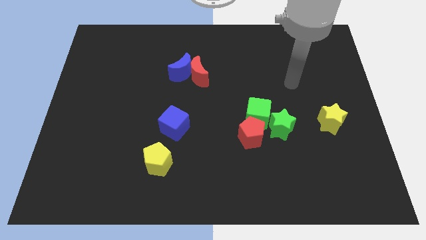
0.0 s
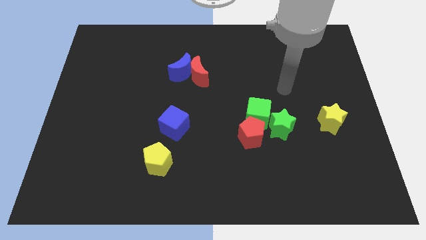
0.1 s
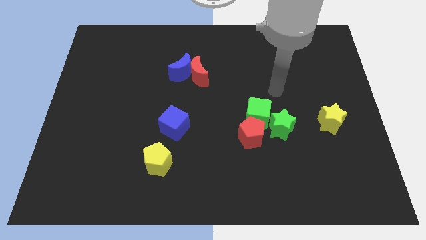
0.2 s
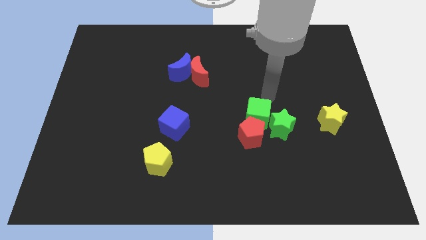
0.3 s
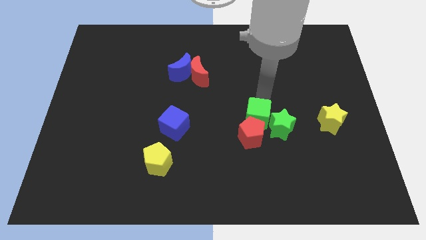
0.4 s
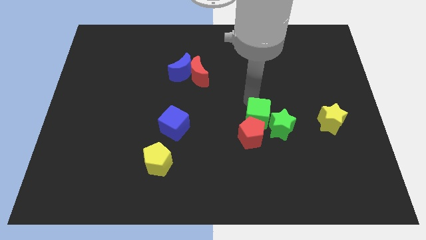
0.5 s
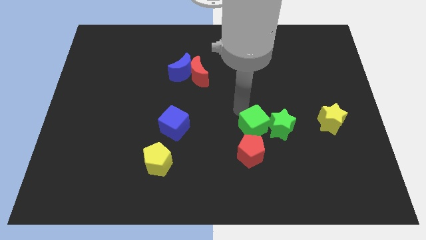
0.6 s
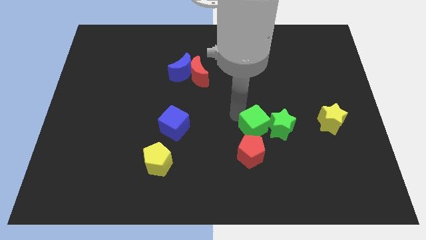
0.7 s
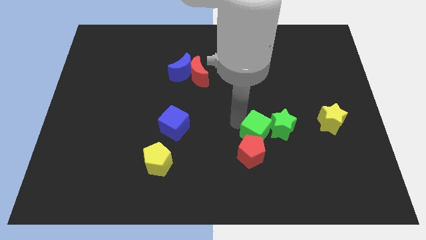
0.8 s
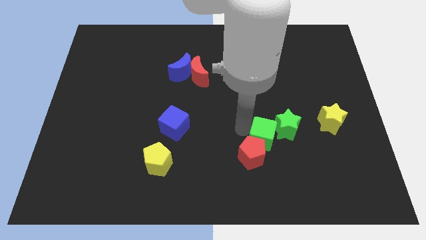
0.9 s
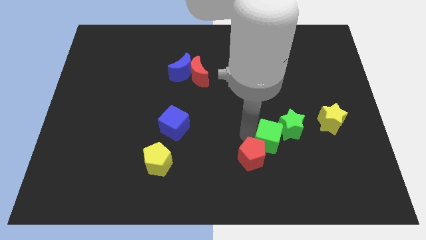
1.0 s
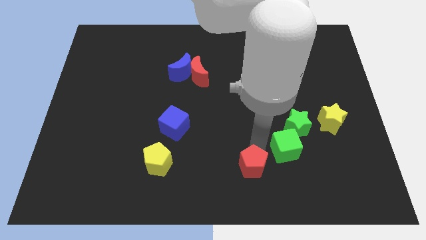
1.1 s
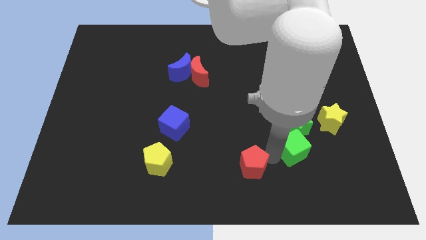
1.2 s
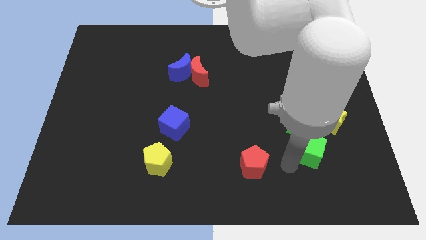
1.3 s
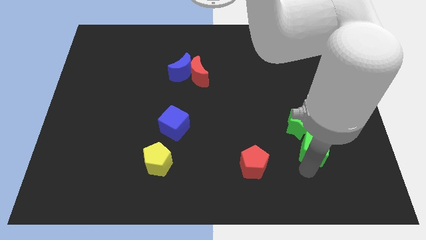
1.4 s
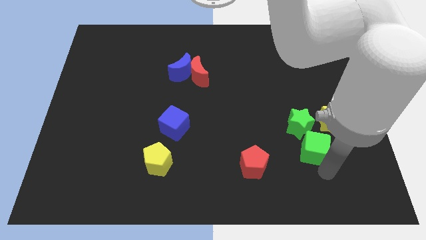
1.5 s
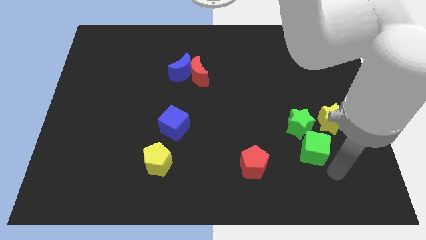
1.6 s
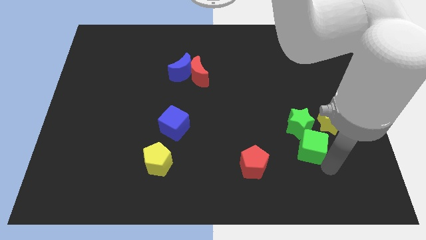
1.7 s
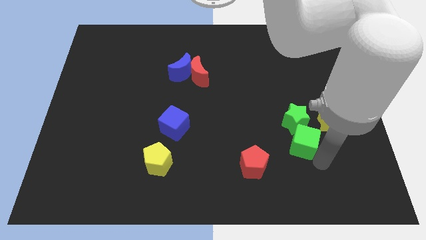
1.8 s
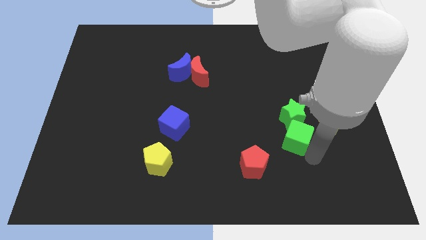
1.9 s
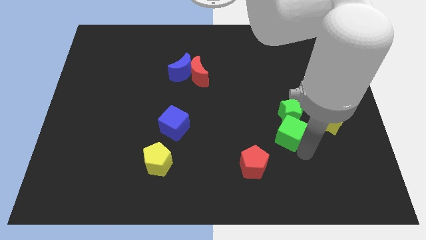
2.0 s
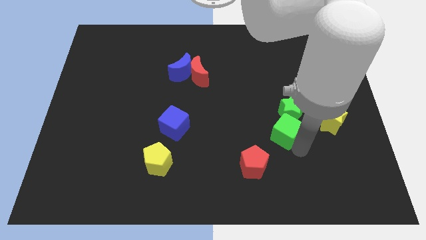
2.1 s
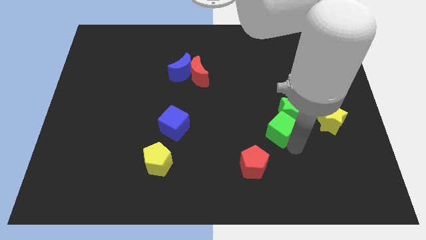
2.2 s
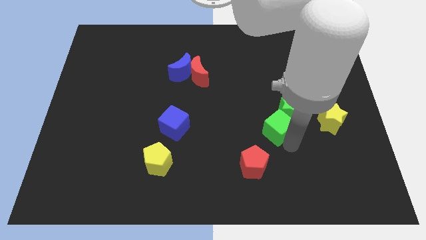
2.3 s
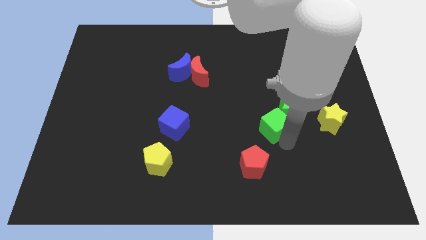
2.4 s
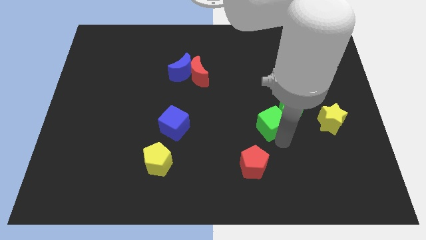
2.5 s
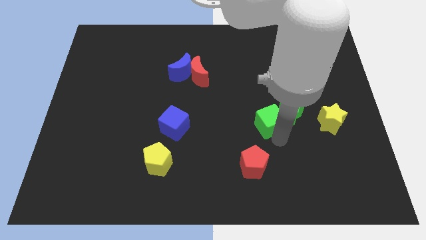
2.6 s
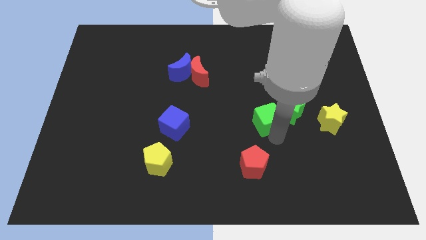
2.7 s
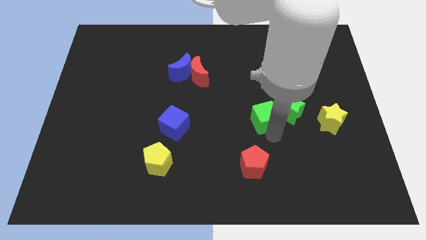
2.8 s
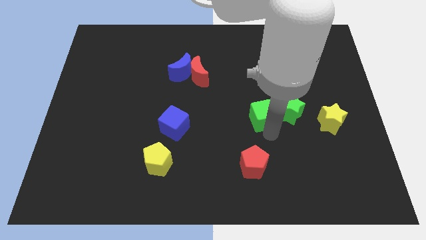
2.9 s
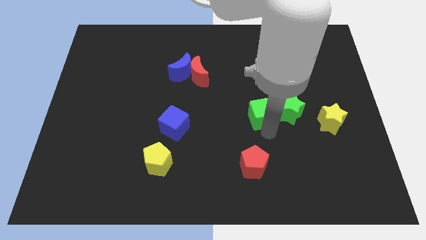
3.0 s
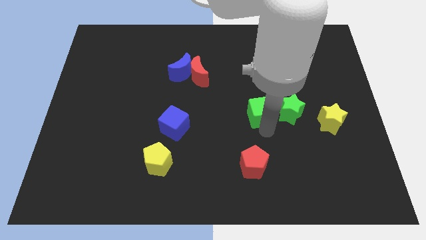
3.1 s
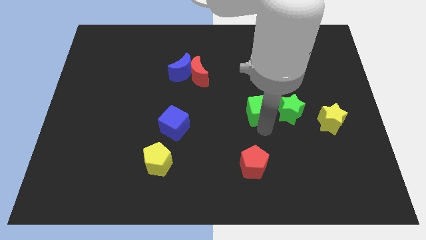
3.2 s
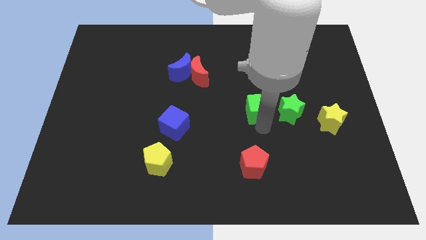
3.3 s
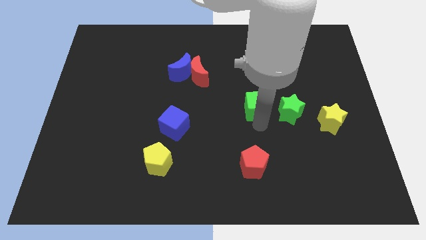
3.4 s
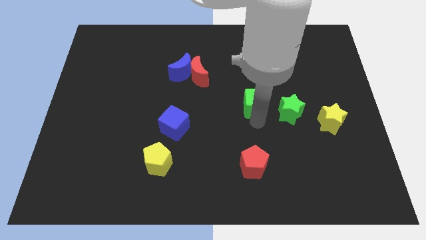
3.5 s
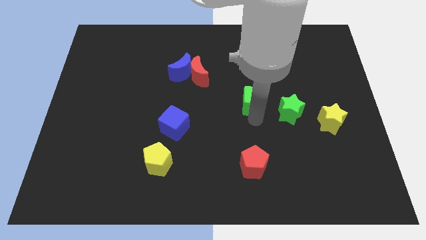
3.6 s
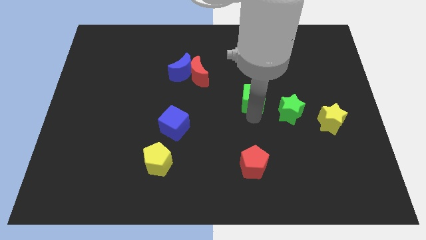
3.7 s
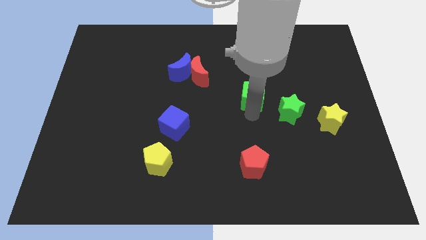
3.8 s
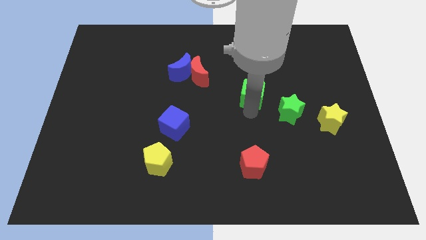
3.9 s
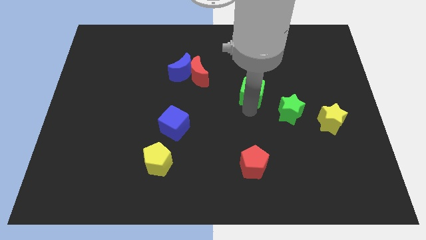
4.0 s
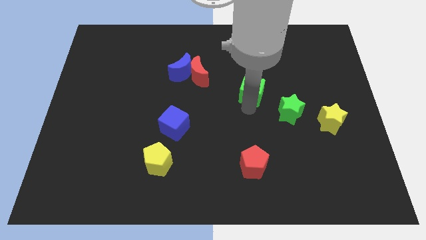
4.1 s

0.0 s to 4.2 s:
move the green cube a little bit upwards

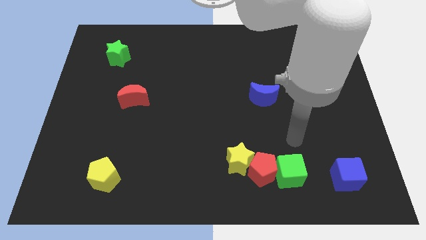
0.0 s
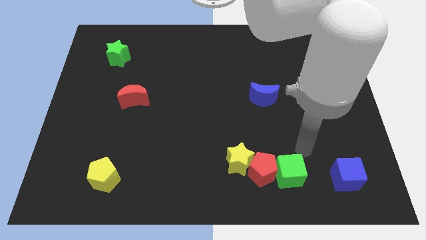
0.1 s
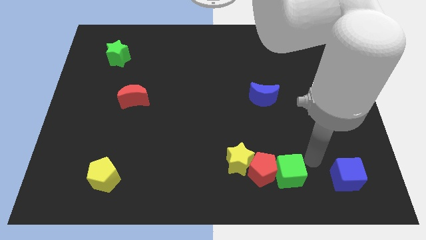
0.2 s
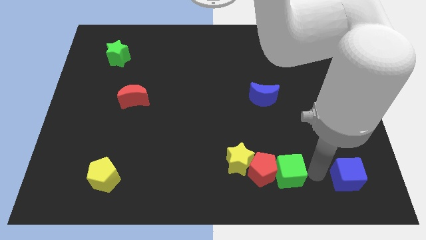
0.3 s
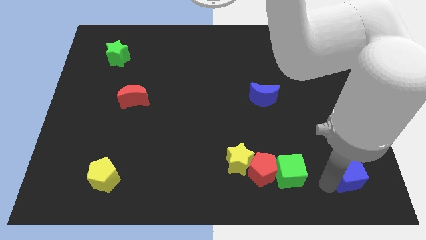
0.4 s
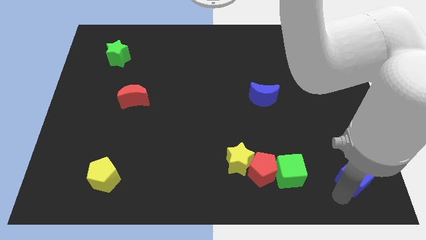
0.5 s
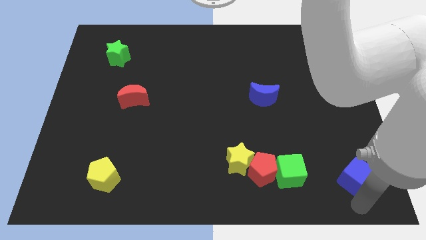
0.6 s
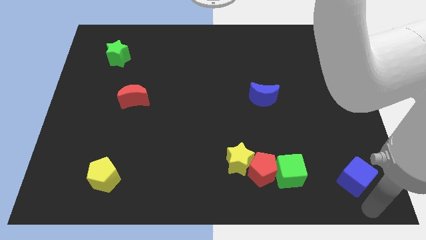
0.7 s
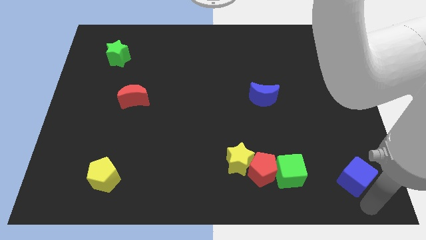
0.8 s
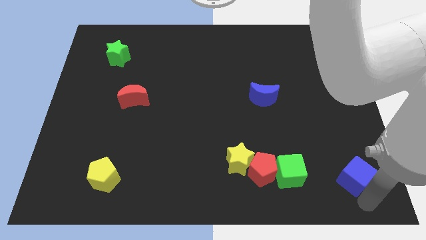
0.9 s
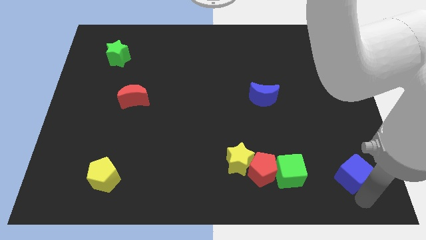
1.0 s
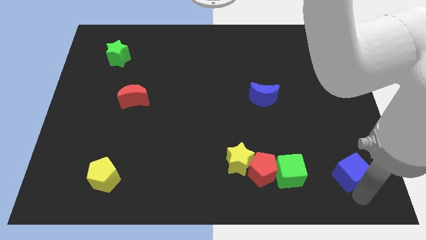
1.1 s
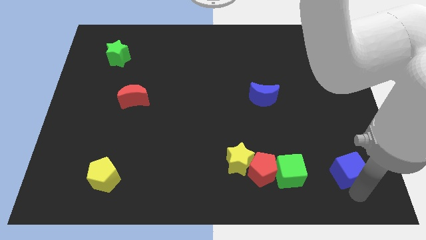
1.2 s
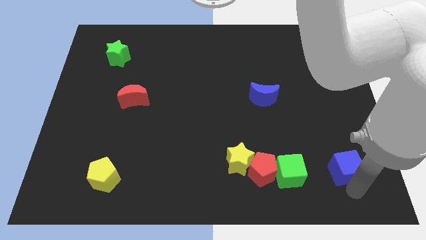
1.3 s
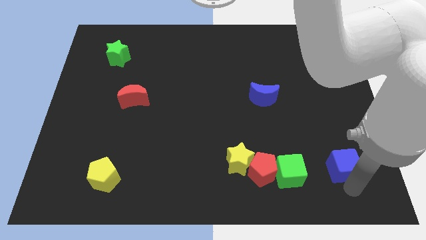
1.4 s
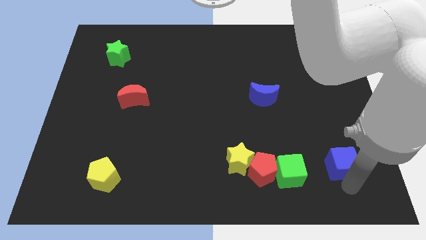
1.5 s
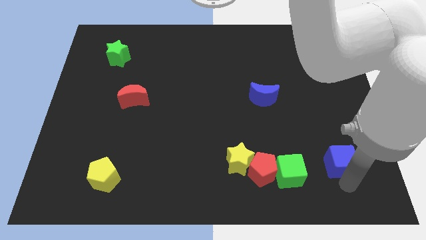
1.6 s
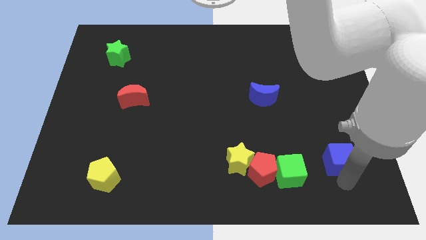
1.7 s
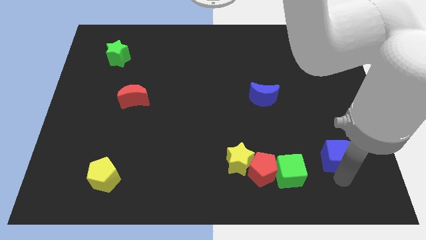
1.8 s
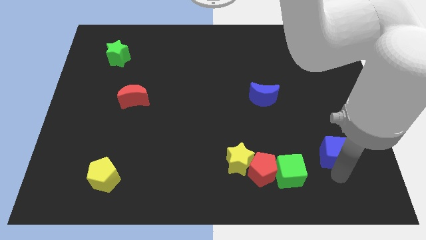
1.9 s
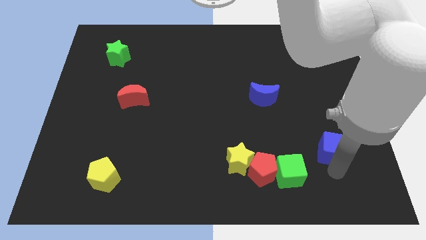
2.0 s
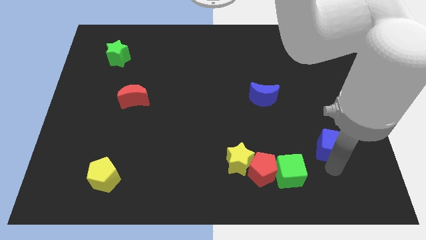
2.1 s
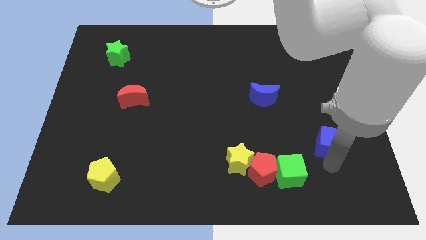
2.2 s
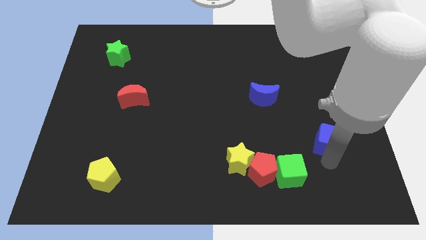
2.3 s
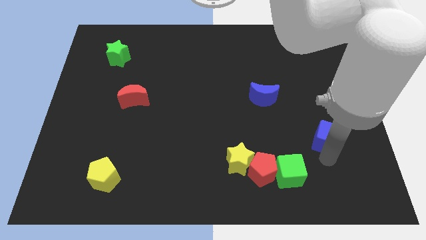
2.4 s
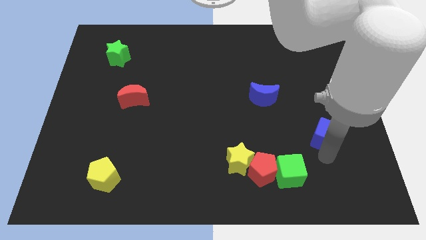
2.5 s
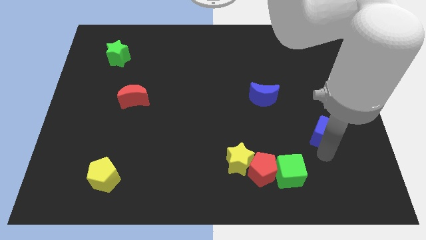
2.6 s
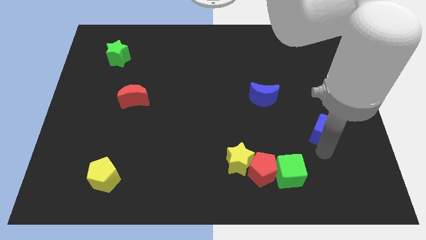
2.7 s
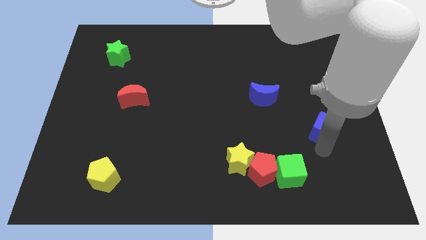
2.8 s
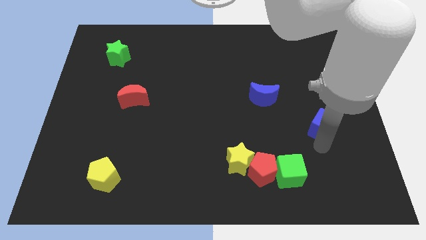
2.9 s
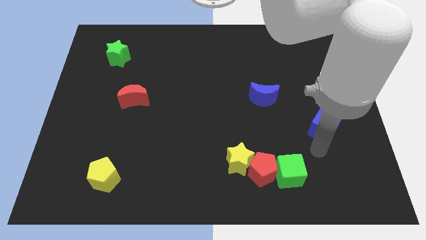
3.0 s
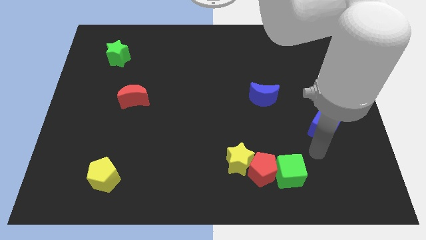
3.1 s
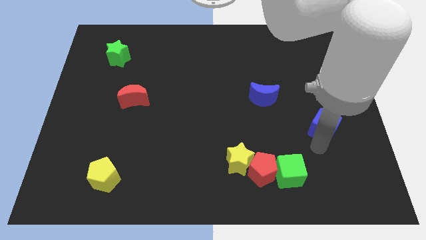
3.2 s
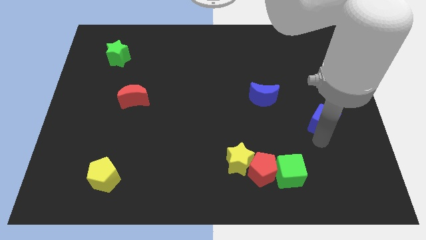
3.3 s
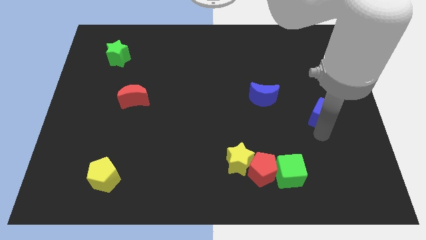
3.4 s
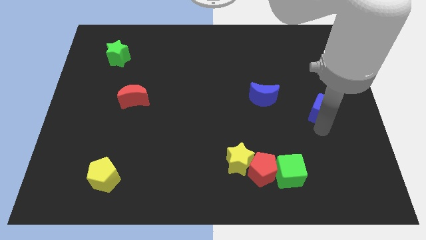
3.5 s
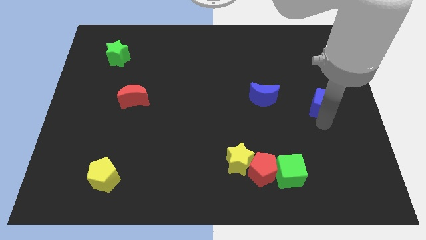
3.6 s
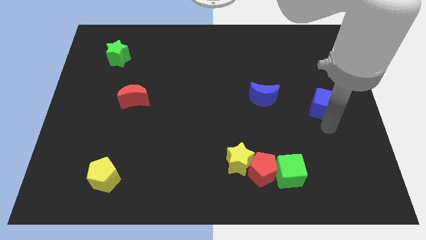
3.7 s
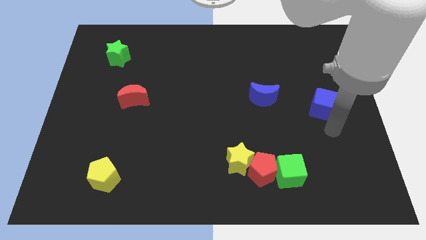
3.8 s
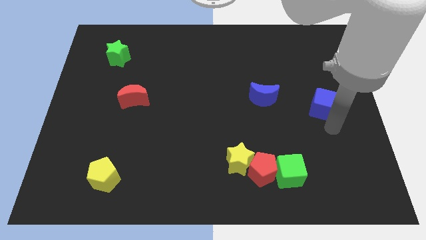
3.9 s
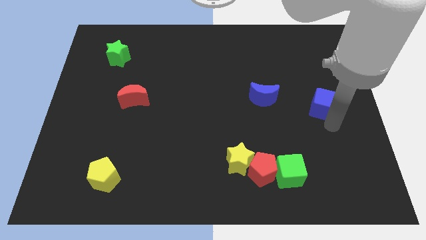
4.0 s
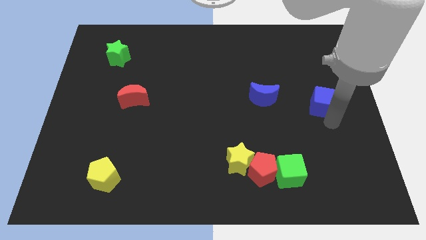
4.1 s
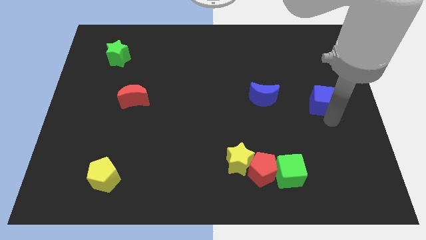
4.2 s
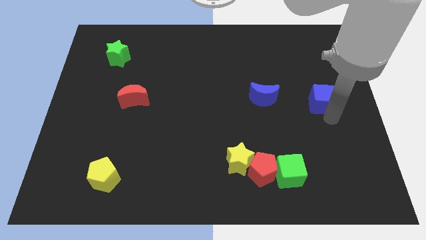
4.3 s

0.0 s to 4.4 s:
push the blue cube upwards
